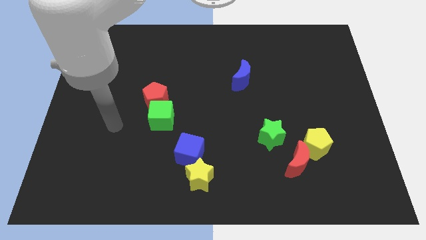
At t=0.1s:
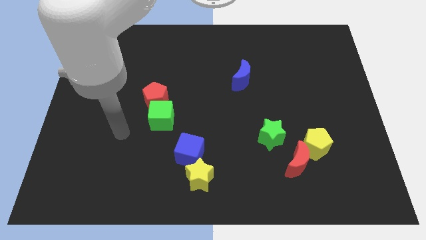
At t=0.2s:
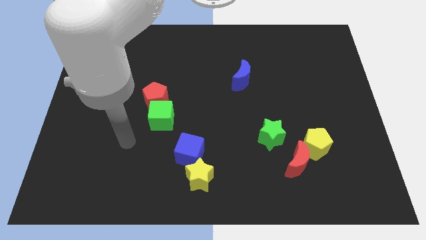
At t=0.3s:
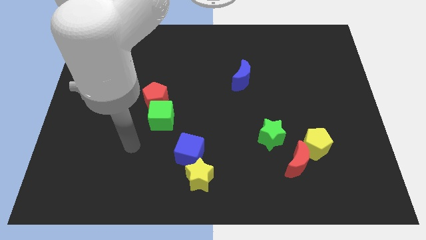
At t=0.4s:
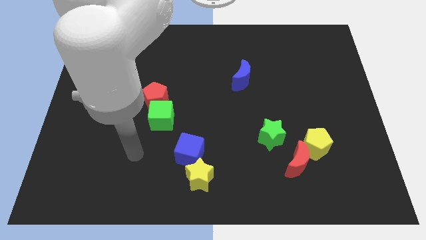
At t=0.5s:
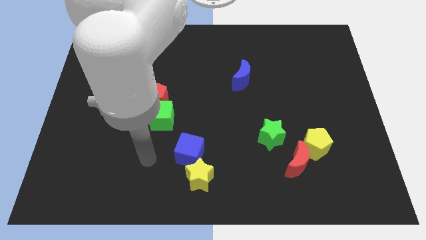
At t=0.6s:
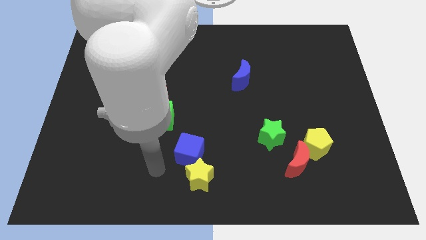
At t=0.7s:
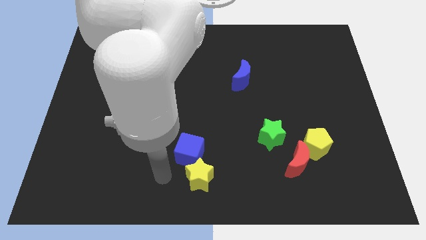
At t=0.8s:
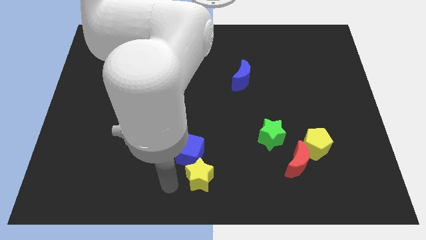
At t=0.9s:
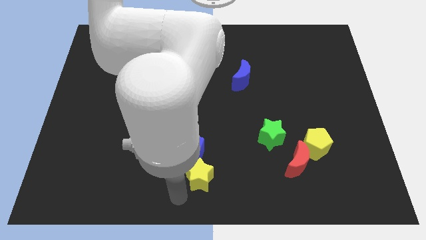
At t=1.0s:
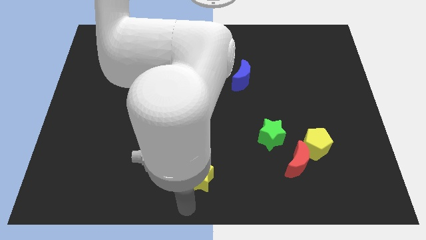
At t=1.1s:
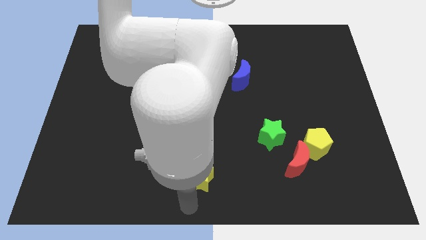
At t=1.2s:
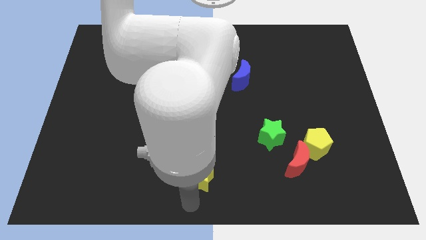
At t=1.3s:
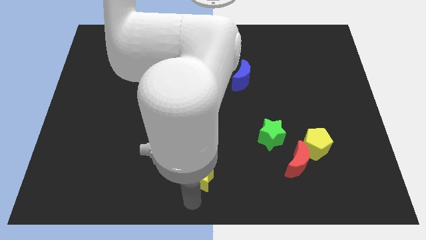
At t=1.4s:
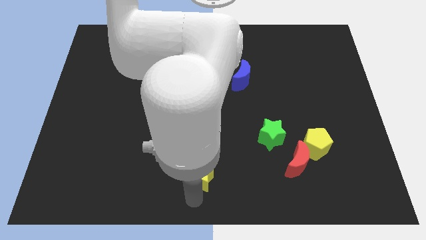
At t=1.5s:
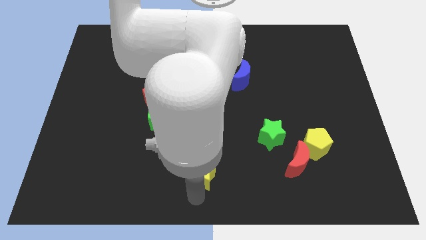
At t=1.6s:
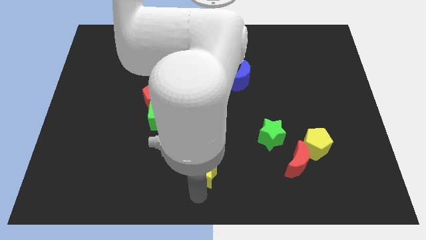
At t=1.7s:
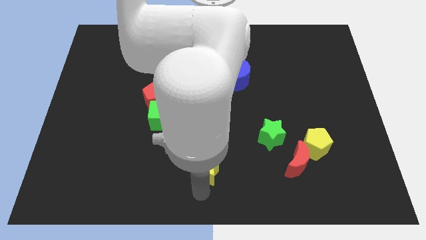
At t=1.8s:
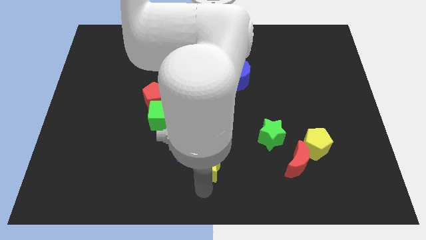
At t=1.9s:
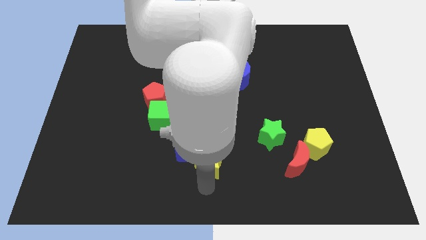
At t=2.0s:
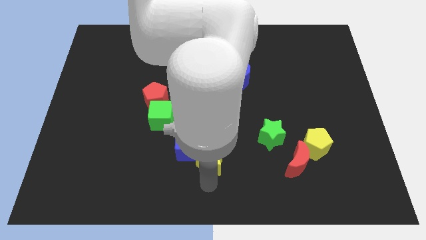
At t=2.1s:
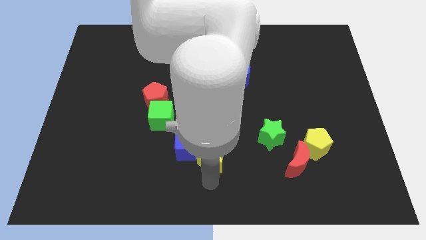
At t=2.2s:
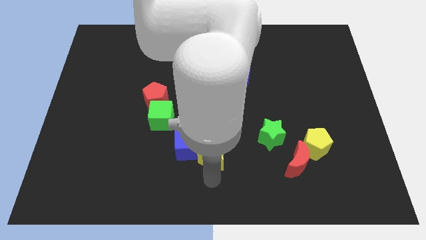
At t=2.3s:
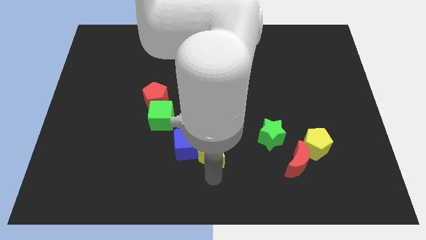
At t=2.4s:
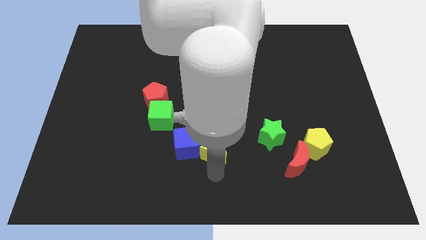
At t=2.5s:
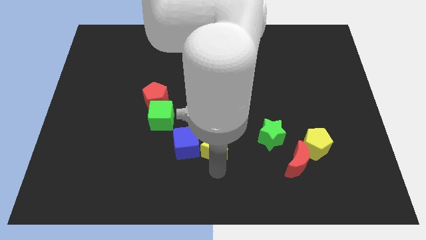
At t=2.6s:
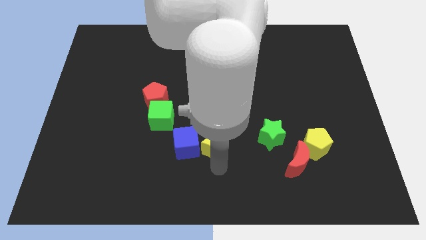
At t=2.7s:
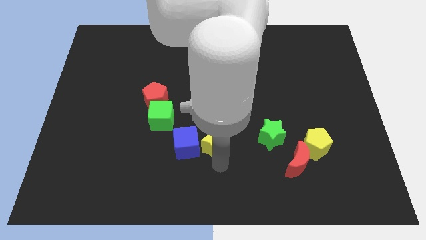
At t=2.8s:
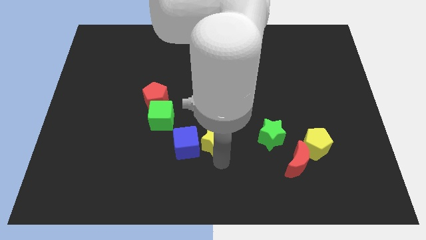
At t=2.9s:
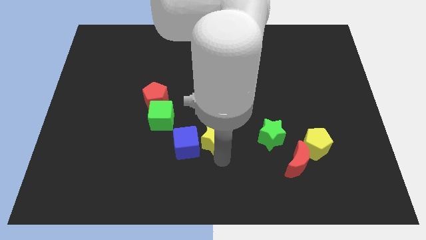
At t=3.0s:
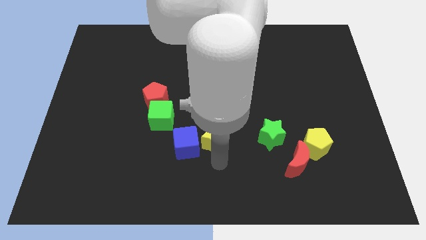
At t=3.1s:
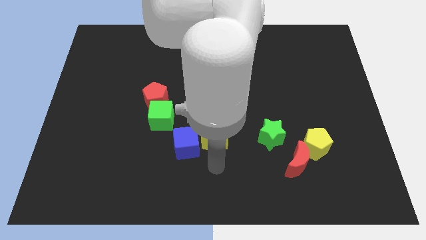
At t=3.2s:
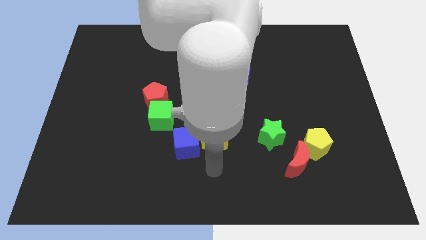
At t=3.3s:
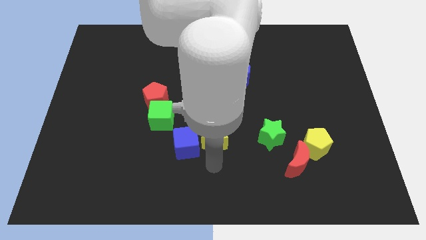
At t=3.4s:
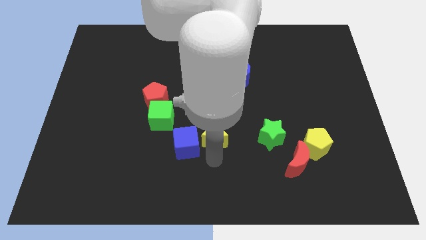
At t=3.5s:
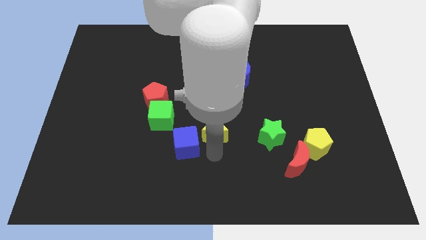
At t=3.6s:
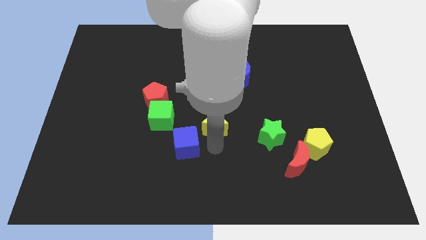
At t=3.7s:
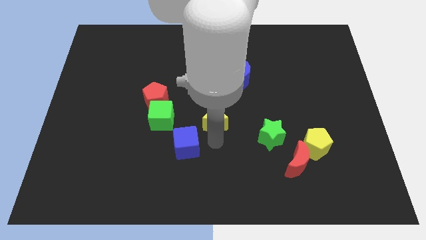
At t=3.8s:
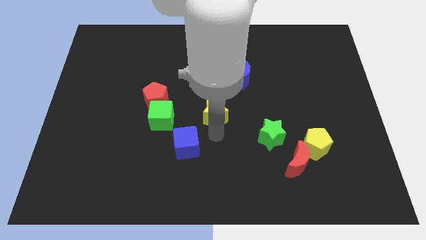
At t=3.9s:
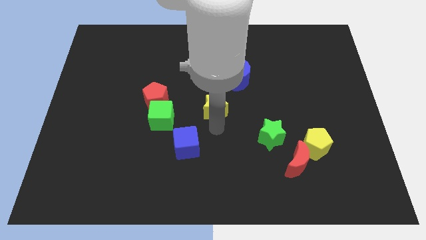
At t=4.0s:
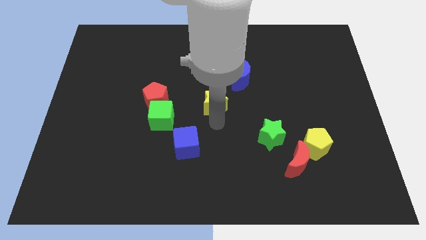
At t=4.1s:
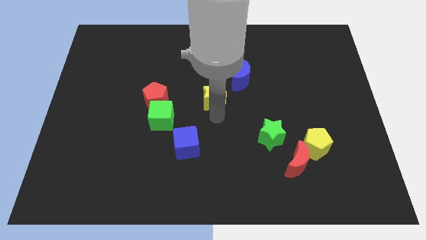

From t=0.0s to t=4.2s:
push the yellow star up

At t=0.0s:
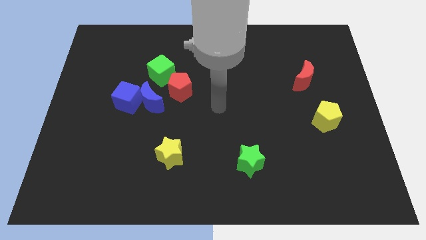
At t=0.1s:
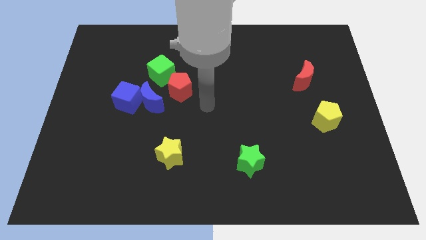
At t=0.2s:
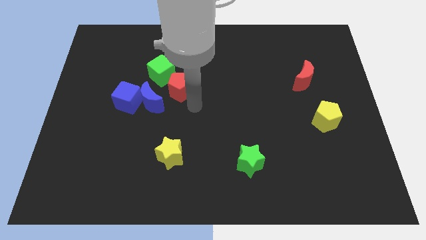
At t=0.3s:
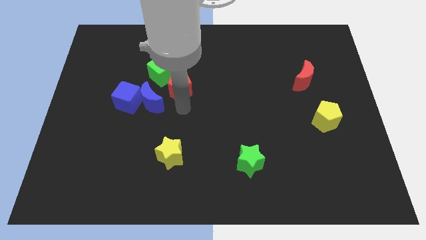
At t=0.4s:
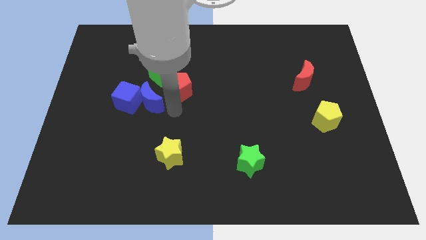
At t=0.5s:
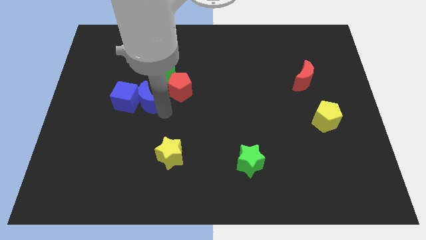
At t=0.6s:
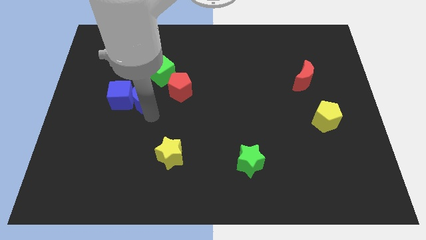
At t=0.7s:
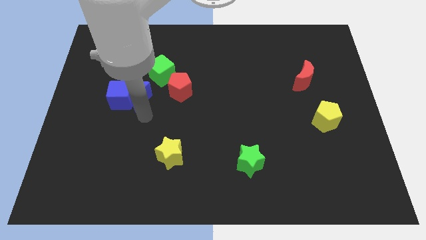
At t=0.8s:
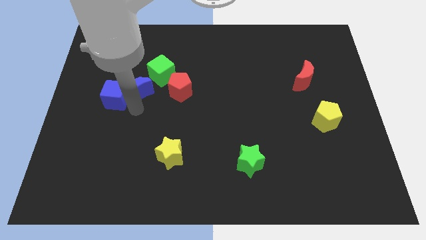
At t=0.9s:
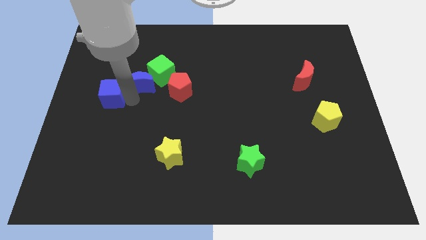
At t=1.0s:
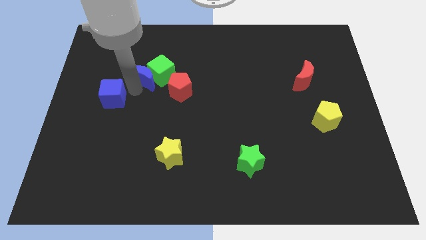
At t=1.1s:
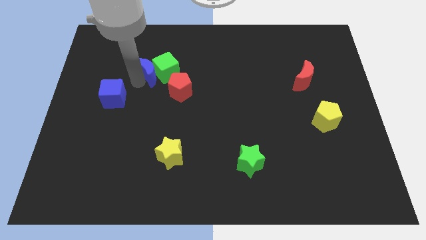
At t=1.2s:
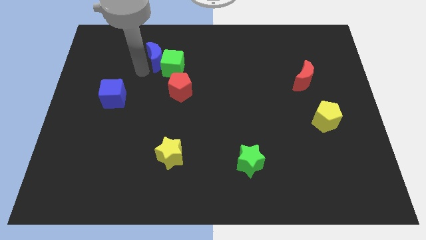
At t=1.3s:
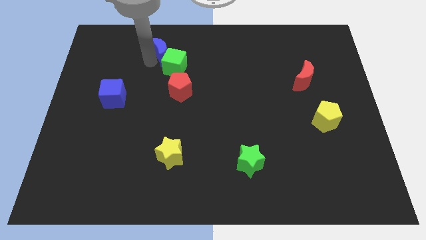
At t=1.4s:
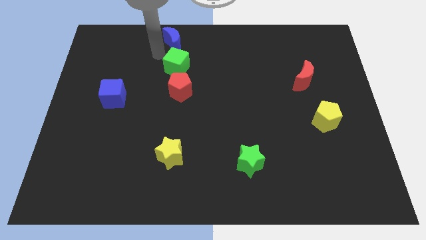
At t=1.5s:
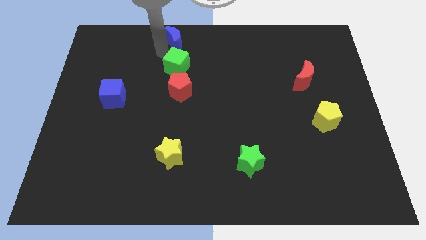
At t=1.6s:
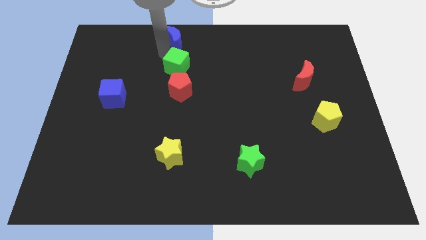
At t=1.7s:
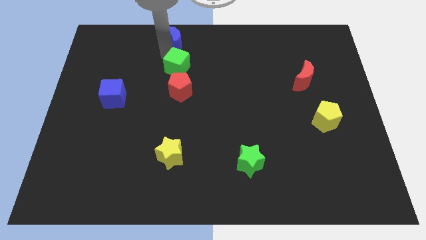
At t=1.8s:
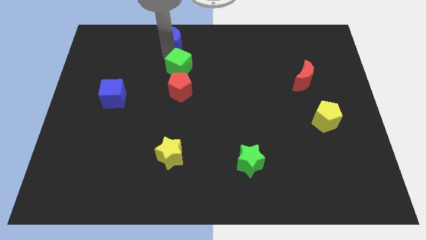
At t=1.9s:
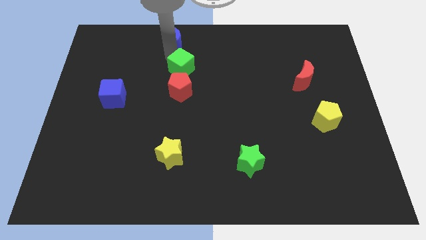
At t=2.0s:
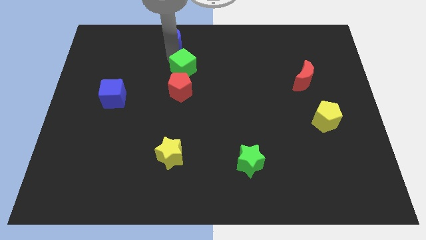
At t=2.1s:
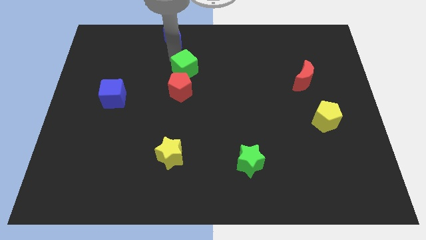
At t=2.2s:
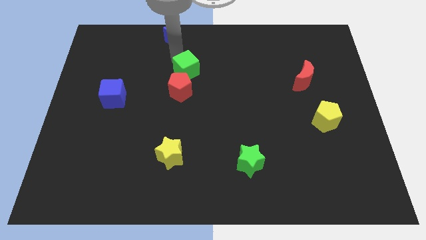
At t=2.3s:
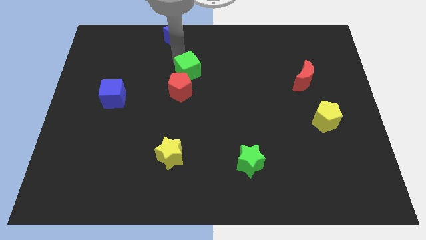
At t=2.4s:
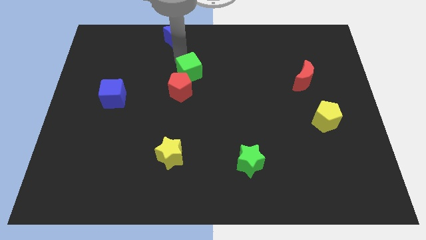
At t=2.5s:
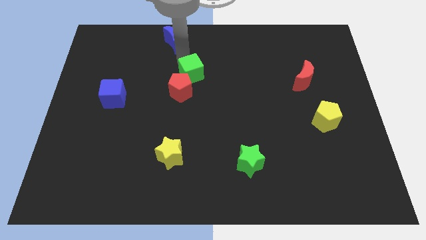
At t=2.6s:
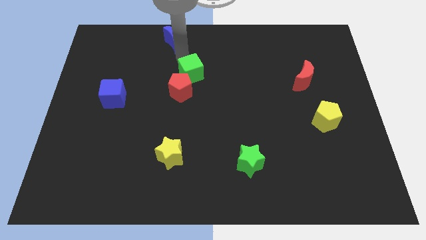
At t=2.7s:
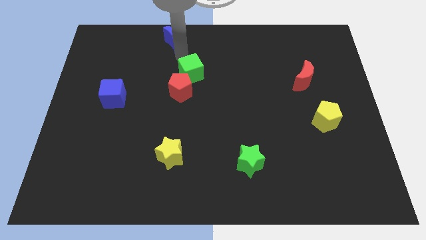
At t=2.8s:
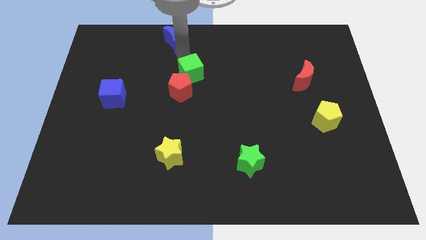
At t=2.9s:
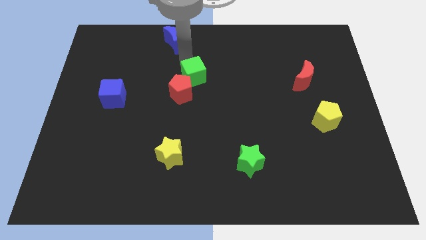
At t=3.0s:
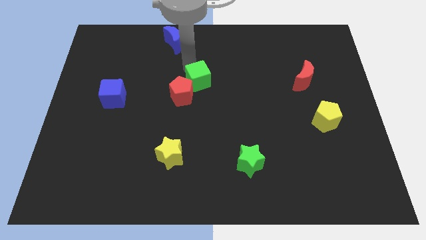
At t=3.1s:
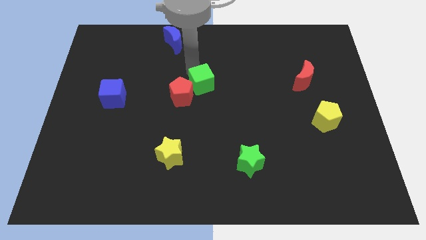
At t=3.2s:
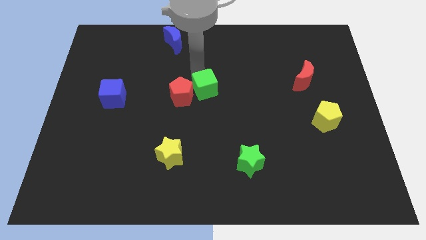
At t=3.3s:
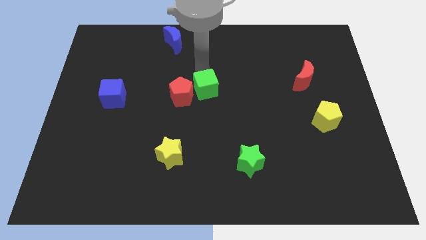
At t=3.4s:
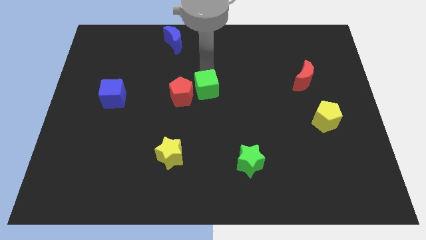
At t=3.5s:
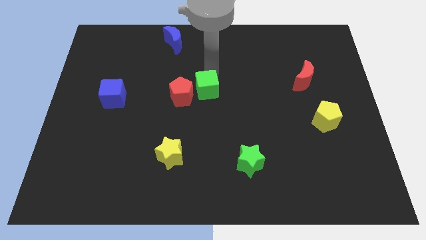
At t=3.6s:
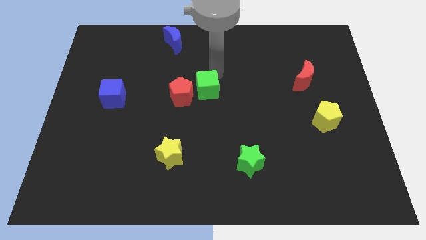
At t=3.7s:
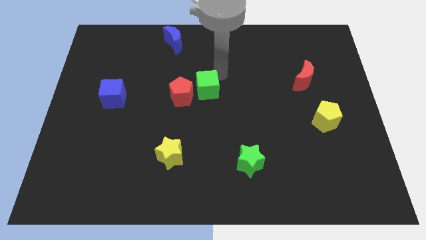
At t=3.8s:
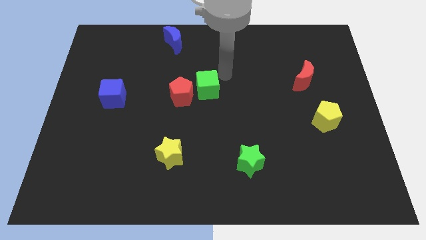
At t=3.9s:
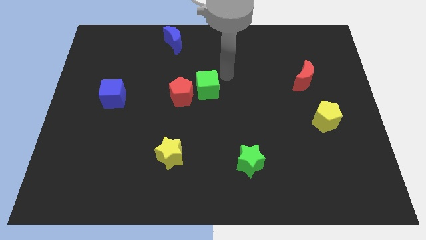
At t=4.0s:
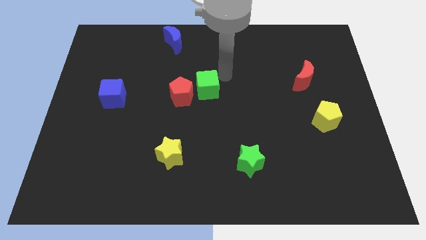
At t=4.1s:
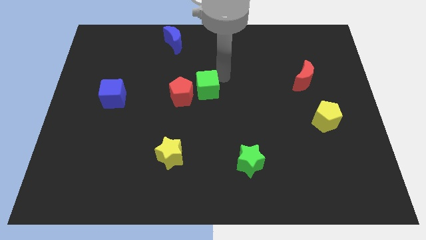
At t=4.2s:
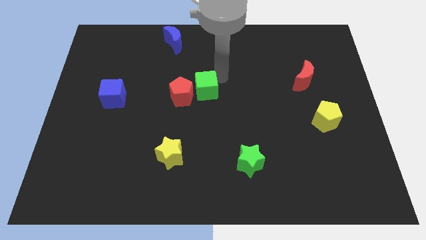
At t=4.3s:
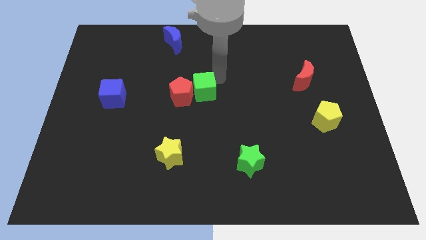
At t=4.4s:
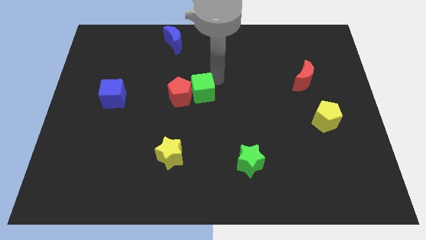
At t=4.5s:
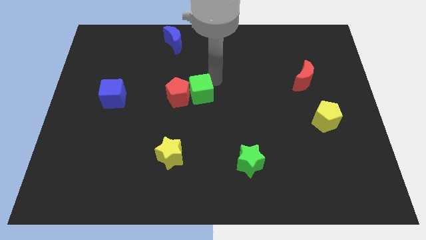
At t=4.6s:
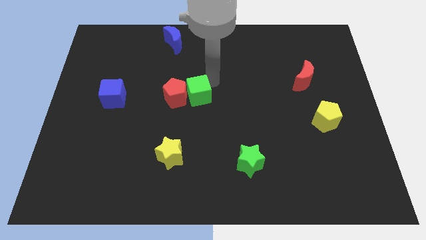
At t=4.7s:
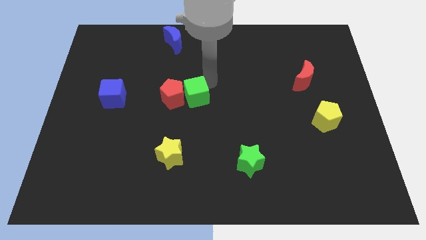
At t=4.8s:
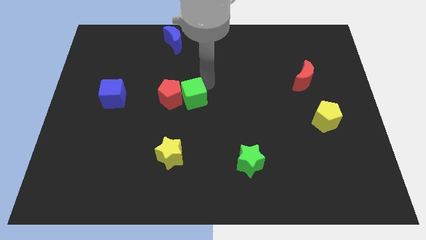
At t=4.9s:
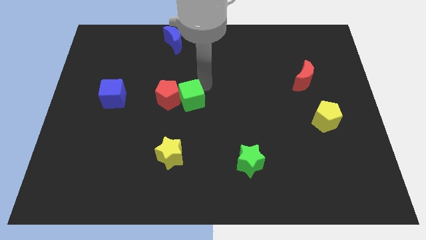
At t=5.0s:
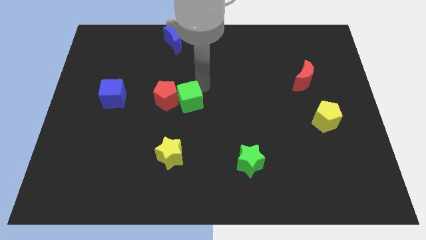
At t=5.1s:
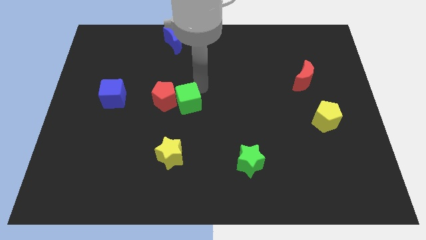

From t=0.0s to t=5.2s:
slightly move the green cube downwards
